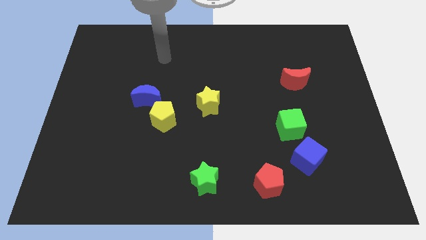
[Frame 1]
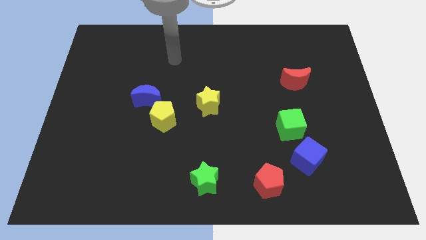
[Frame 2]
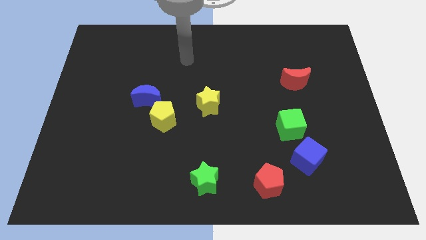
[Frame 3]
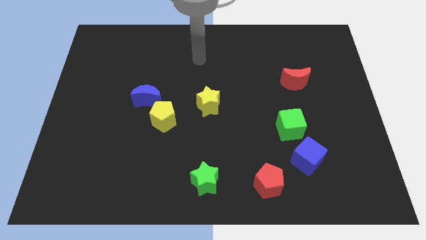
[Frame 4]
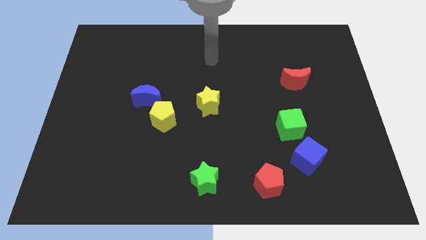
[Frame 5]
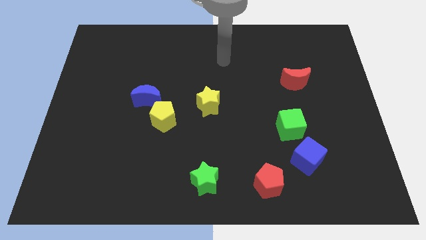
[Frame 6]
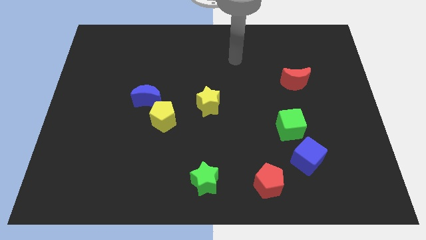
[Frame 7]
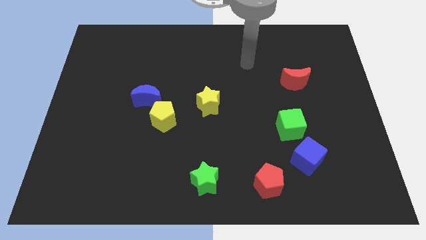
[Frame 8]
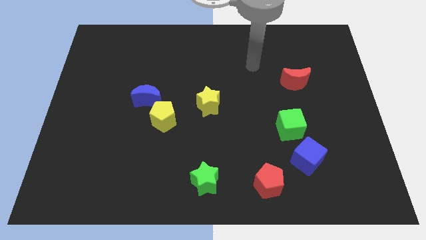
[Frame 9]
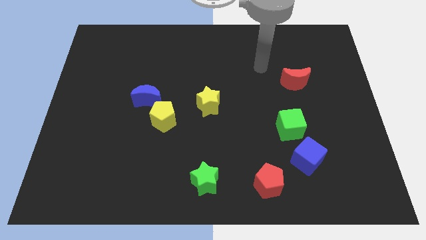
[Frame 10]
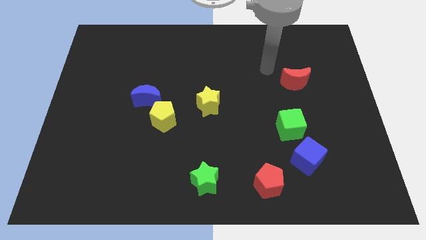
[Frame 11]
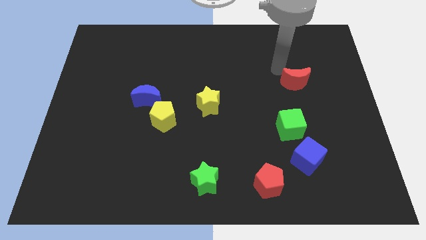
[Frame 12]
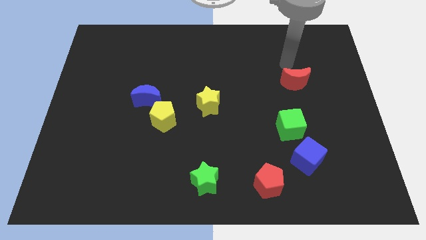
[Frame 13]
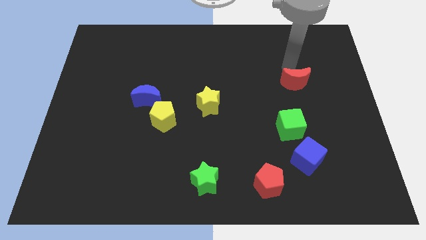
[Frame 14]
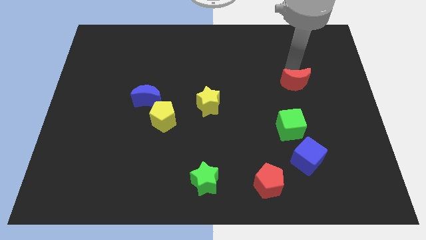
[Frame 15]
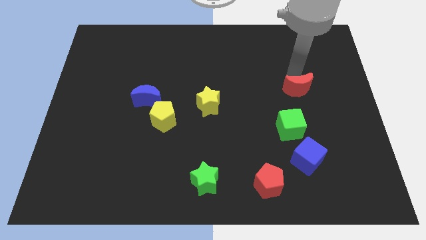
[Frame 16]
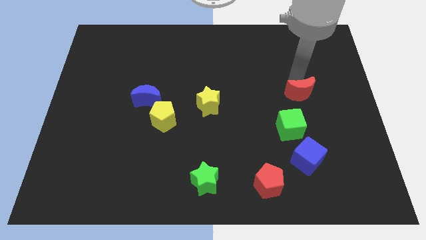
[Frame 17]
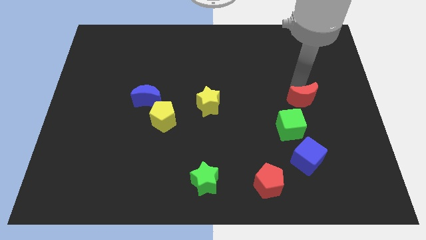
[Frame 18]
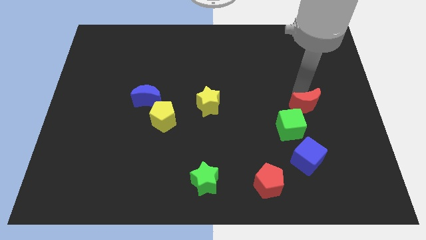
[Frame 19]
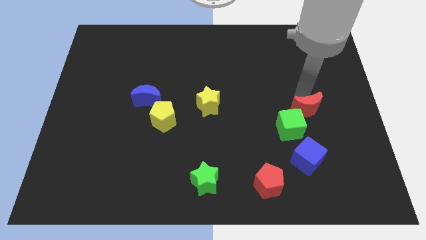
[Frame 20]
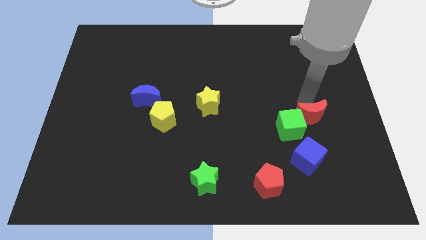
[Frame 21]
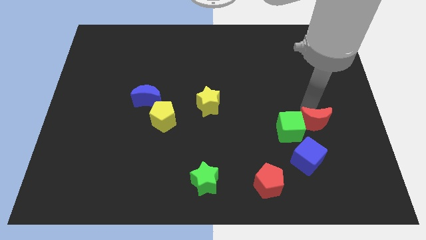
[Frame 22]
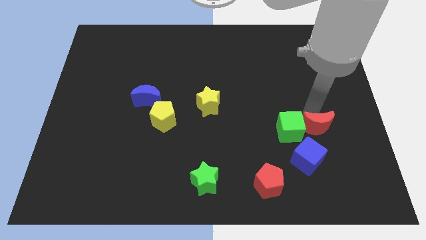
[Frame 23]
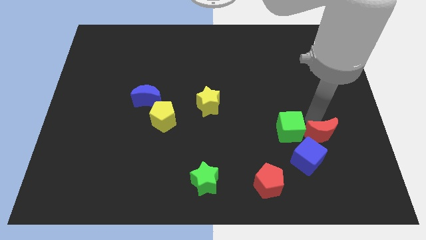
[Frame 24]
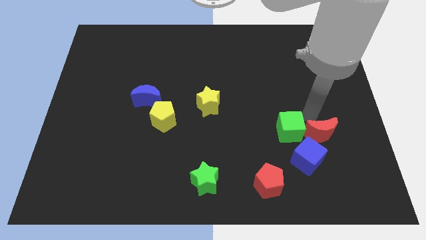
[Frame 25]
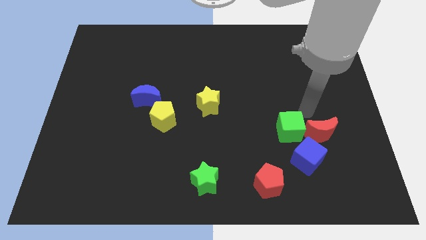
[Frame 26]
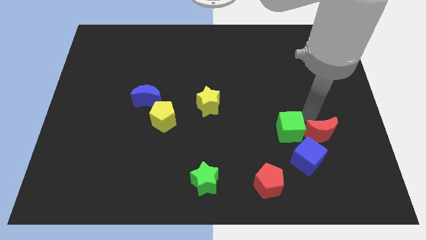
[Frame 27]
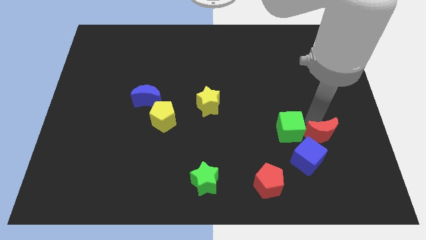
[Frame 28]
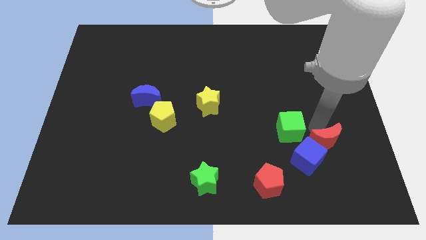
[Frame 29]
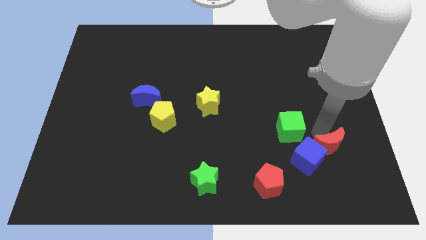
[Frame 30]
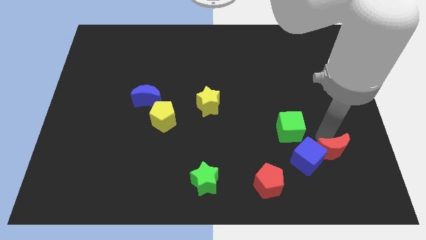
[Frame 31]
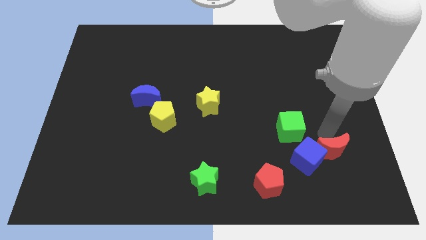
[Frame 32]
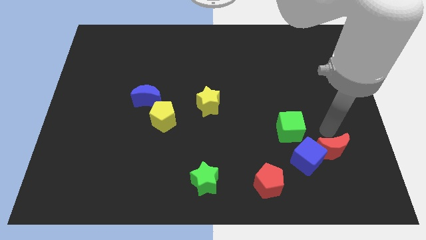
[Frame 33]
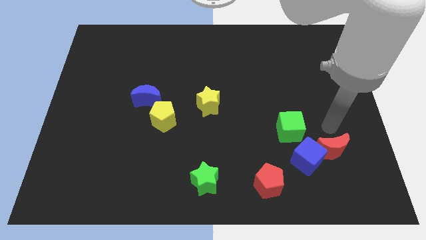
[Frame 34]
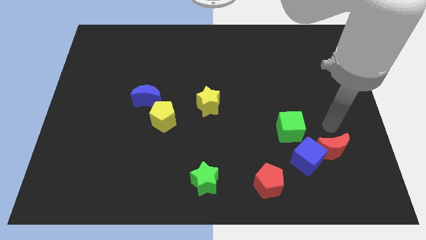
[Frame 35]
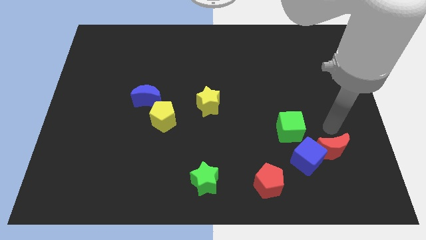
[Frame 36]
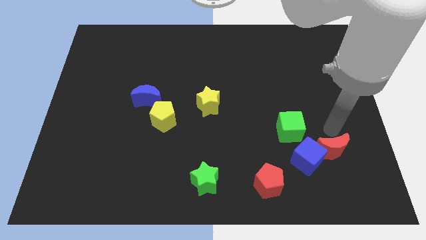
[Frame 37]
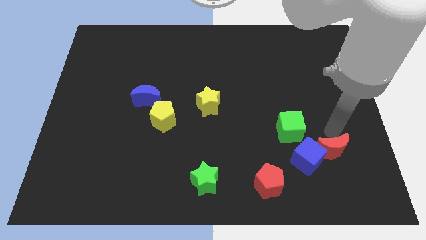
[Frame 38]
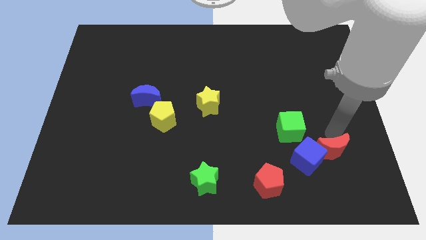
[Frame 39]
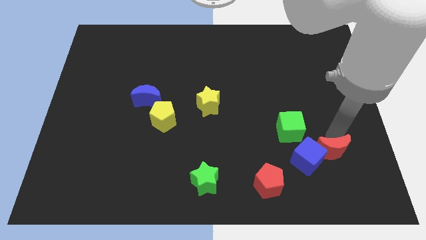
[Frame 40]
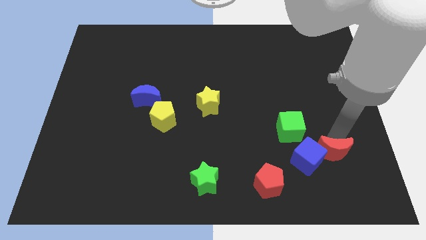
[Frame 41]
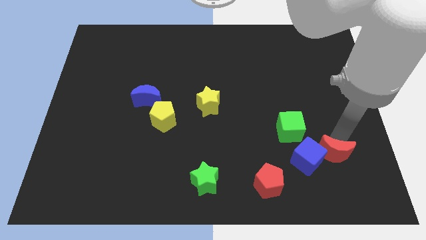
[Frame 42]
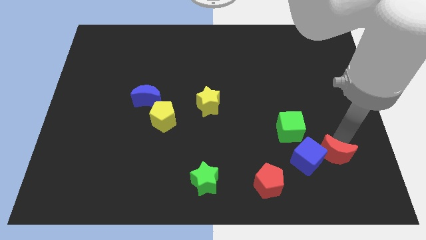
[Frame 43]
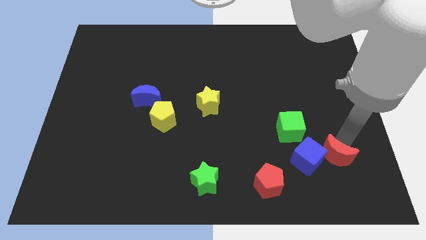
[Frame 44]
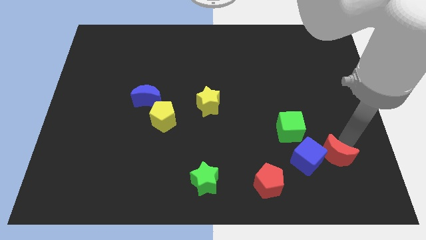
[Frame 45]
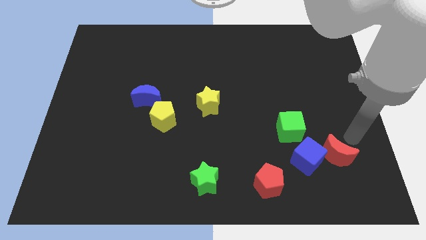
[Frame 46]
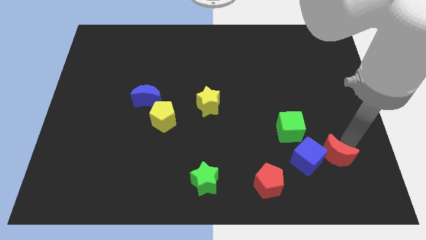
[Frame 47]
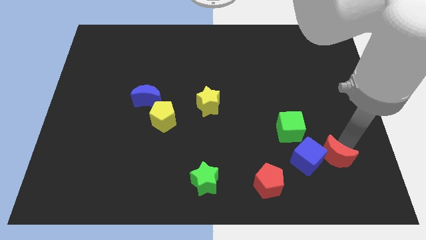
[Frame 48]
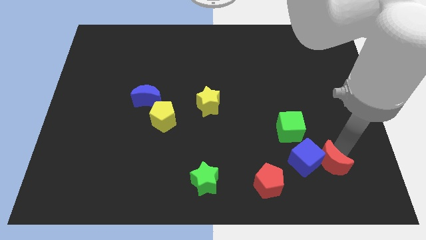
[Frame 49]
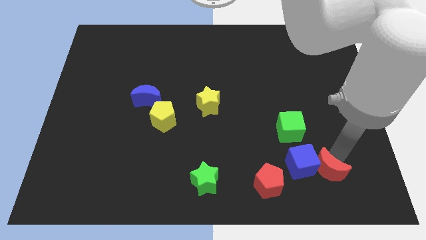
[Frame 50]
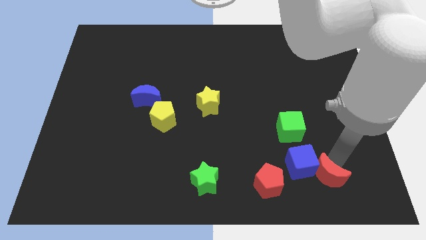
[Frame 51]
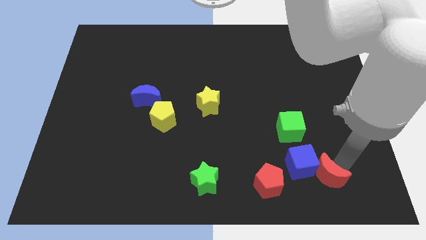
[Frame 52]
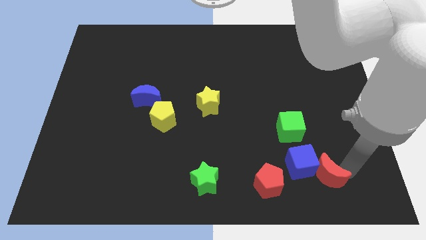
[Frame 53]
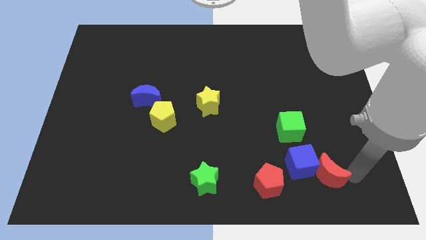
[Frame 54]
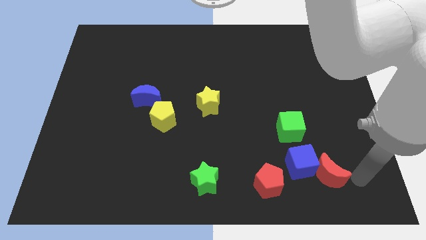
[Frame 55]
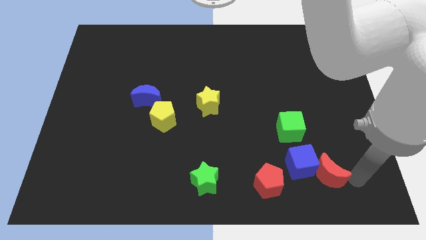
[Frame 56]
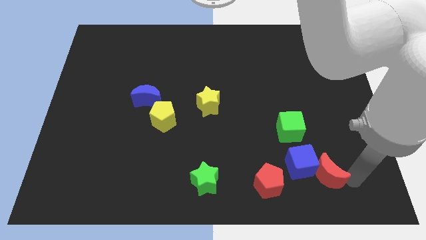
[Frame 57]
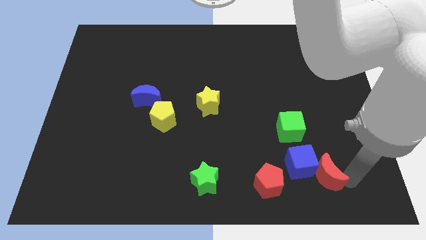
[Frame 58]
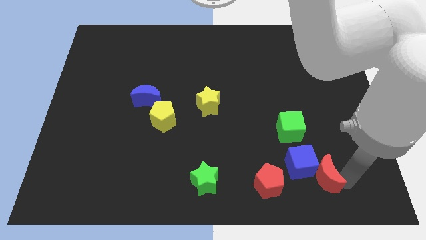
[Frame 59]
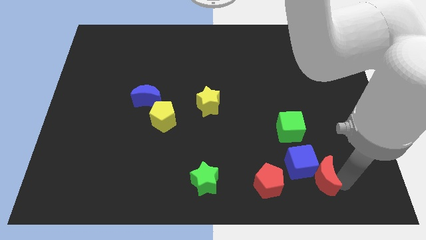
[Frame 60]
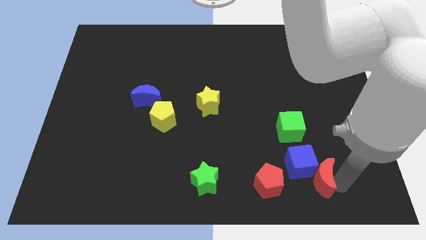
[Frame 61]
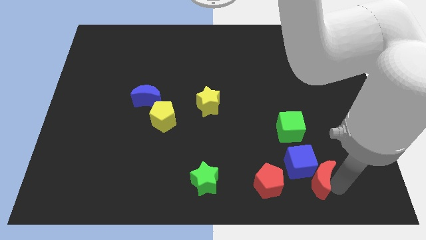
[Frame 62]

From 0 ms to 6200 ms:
put the red moon to the bottom side of the green cube
